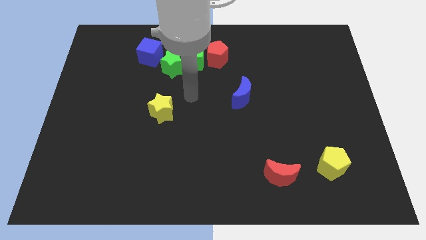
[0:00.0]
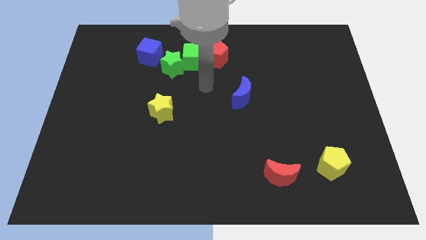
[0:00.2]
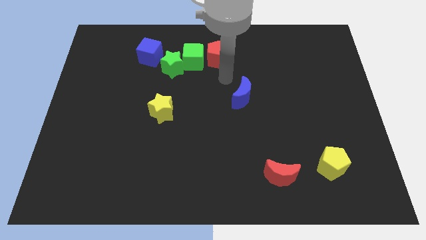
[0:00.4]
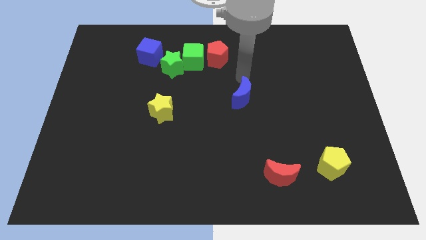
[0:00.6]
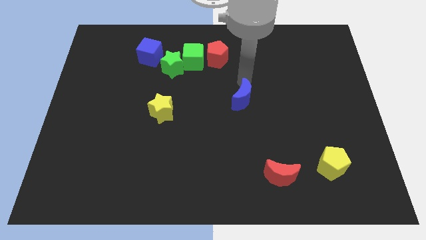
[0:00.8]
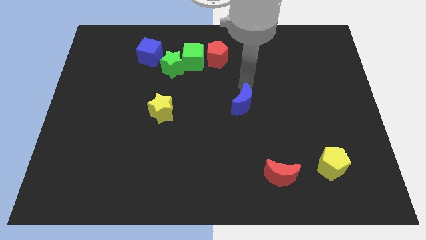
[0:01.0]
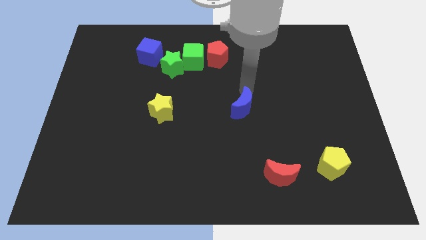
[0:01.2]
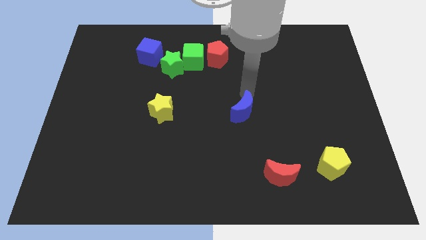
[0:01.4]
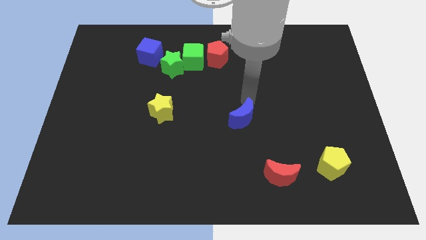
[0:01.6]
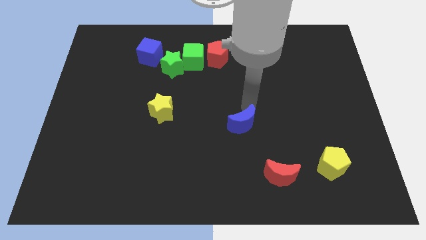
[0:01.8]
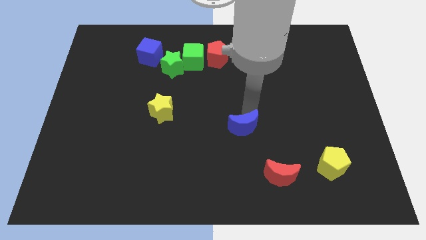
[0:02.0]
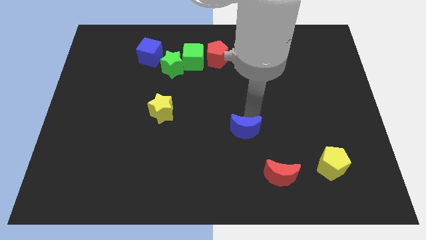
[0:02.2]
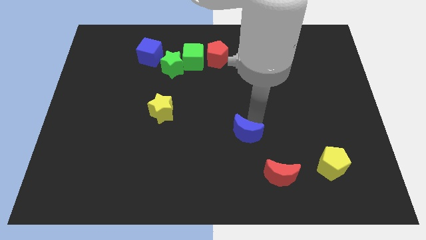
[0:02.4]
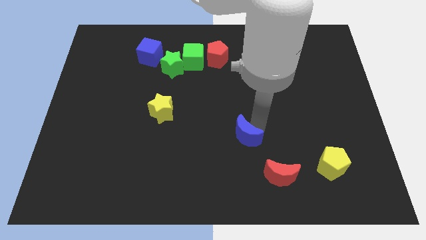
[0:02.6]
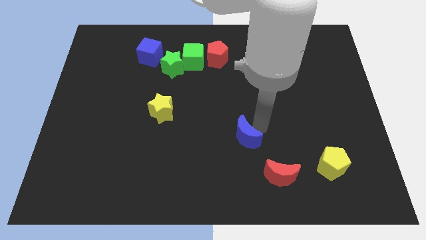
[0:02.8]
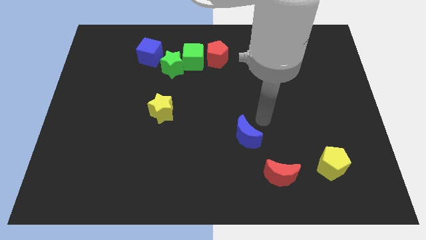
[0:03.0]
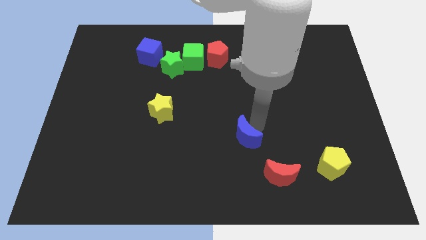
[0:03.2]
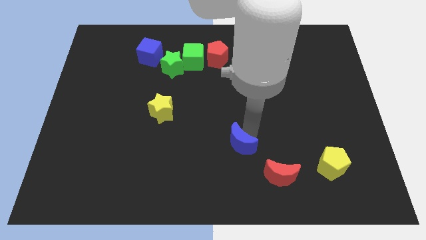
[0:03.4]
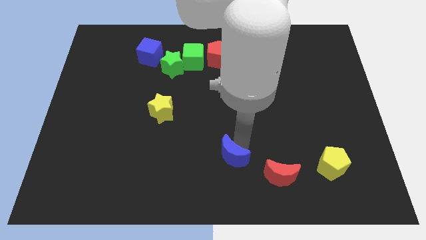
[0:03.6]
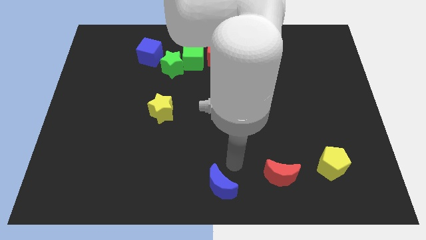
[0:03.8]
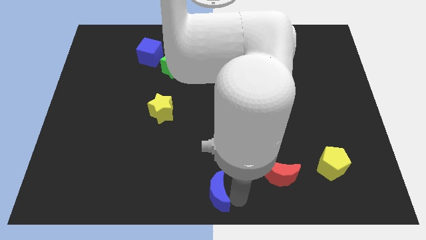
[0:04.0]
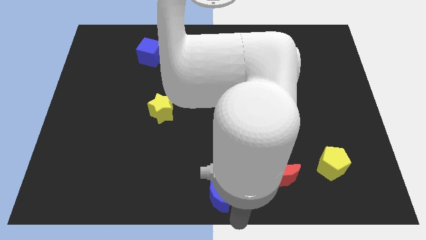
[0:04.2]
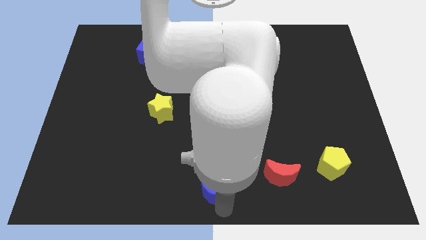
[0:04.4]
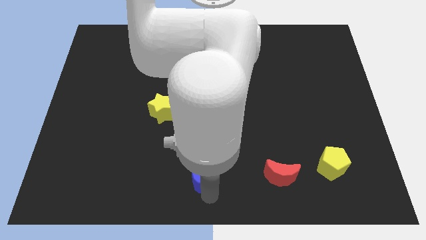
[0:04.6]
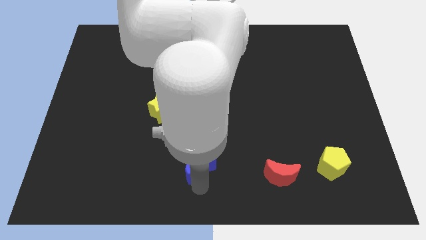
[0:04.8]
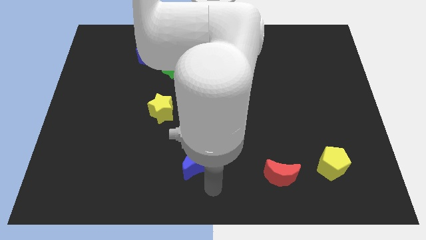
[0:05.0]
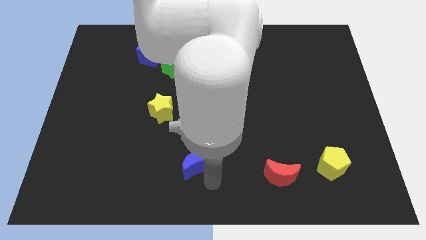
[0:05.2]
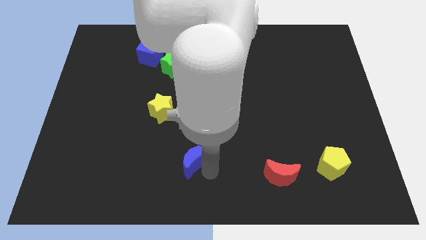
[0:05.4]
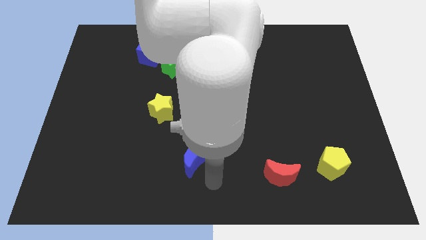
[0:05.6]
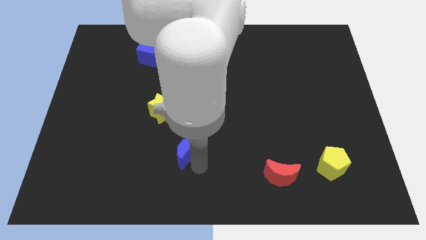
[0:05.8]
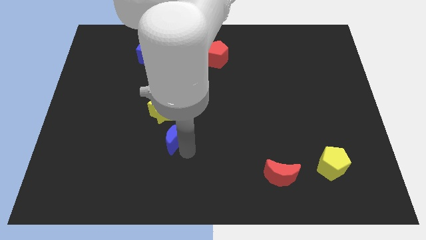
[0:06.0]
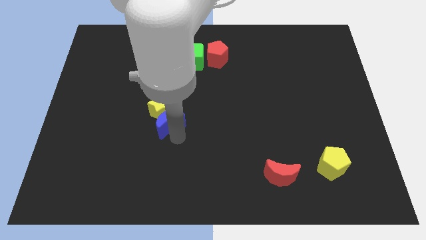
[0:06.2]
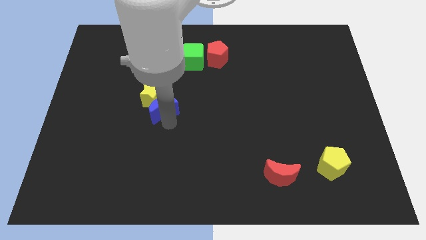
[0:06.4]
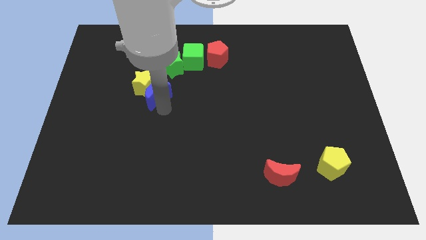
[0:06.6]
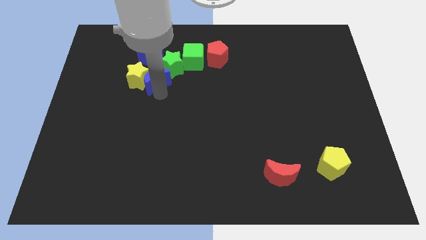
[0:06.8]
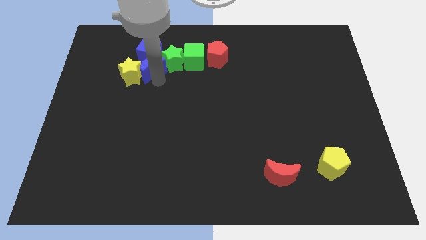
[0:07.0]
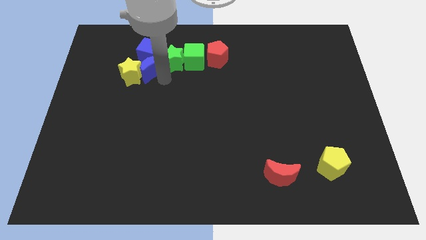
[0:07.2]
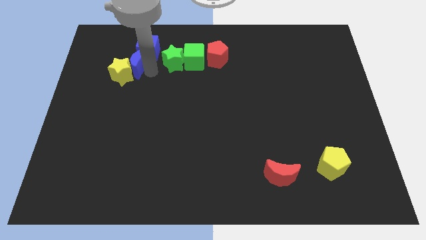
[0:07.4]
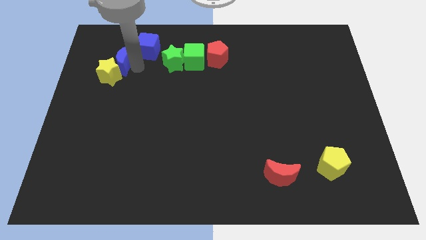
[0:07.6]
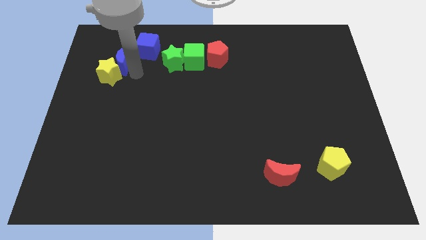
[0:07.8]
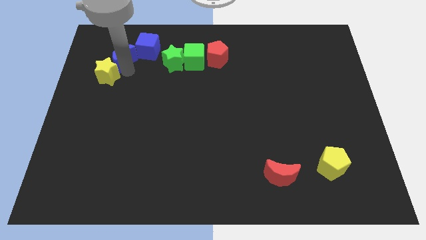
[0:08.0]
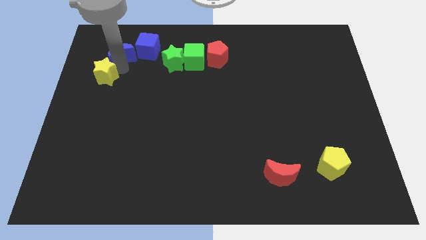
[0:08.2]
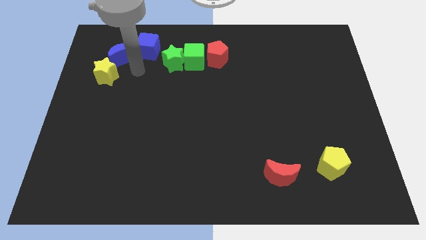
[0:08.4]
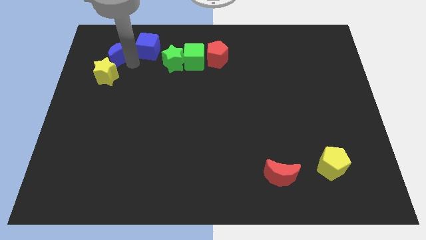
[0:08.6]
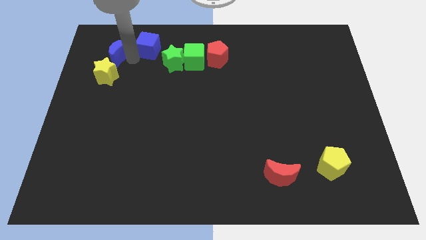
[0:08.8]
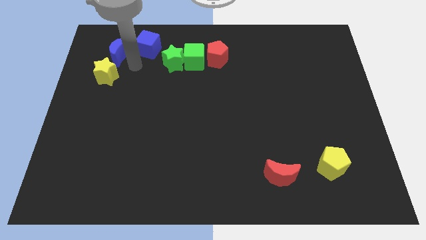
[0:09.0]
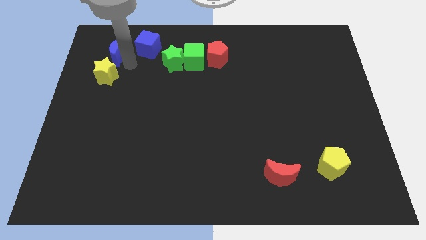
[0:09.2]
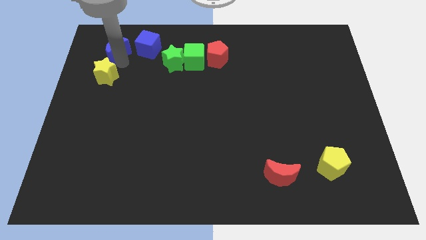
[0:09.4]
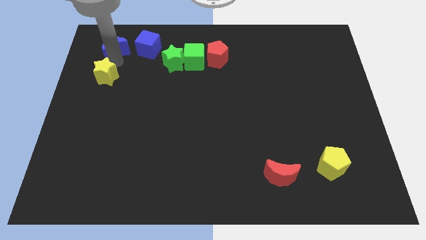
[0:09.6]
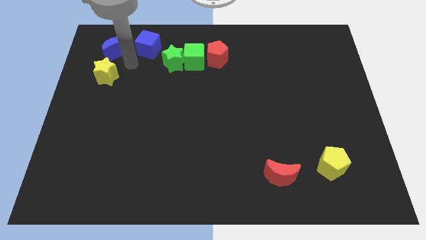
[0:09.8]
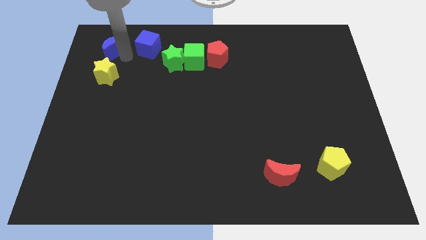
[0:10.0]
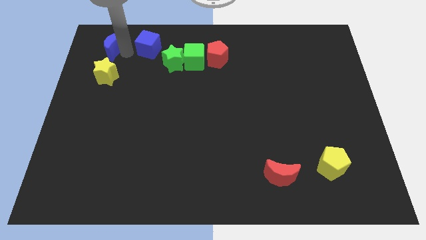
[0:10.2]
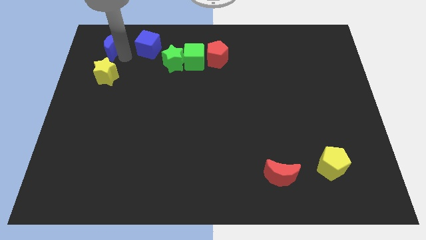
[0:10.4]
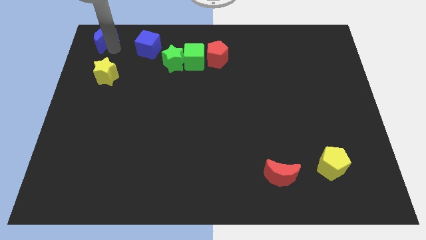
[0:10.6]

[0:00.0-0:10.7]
put the blue moon to the top left corner

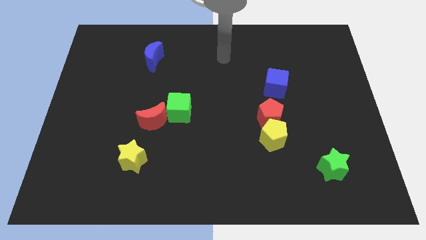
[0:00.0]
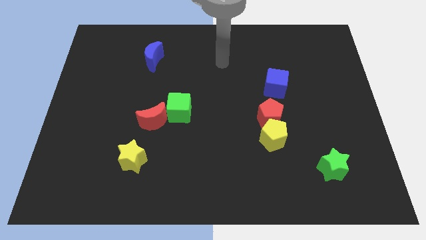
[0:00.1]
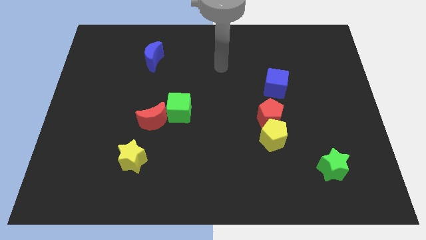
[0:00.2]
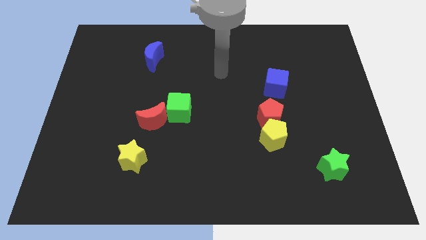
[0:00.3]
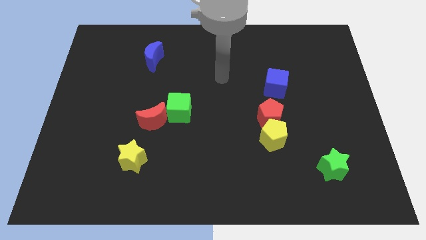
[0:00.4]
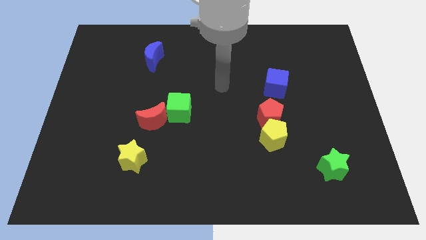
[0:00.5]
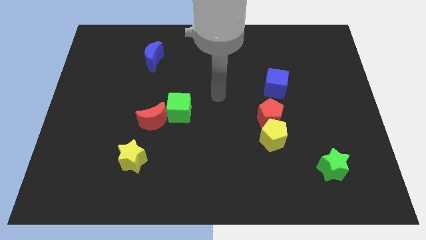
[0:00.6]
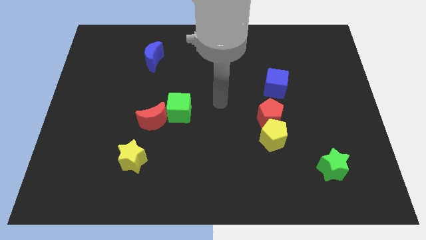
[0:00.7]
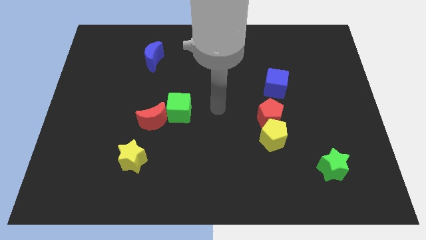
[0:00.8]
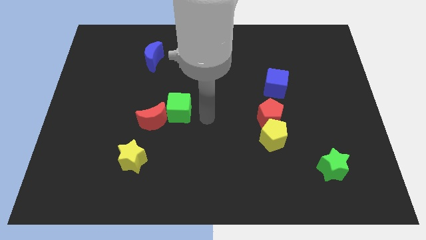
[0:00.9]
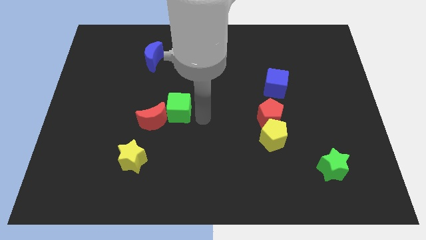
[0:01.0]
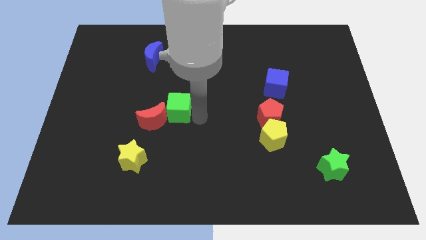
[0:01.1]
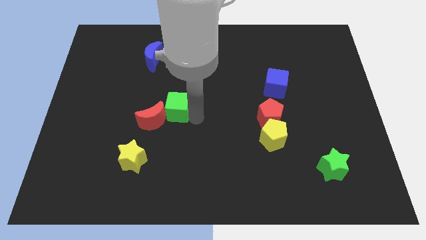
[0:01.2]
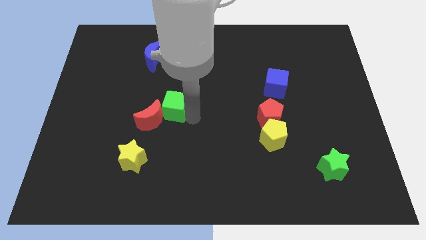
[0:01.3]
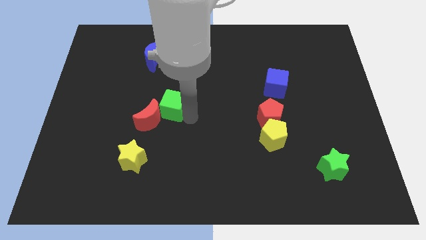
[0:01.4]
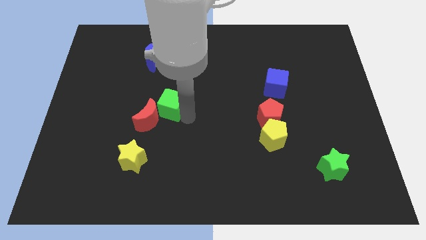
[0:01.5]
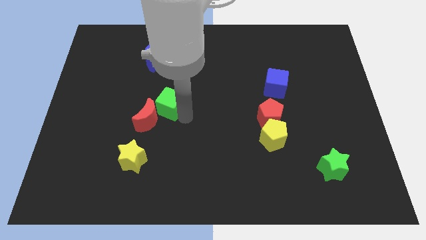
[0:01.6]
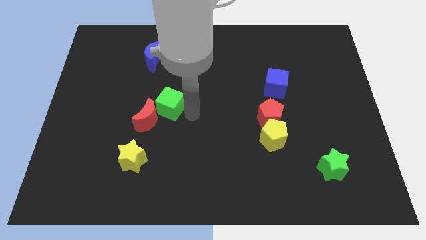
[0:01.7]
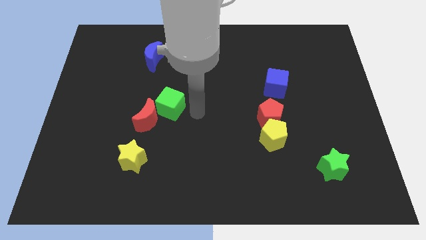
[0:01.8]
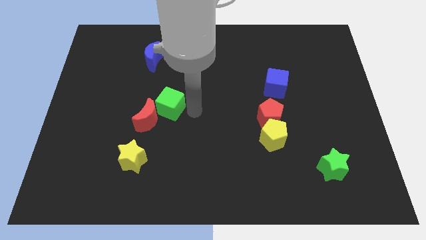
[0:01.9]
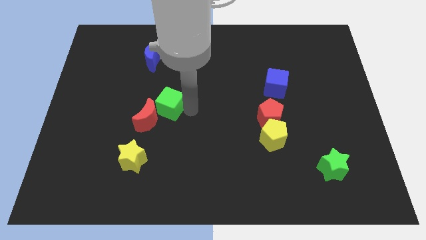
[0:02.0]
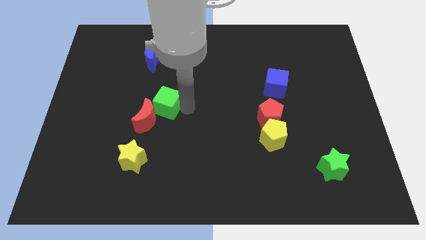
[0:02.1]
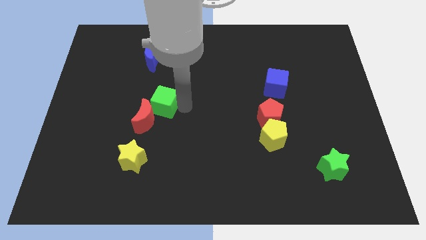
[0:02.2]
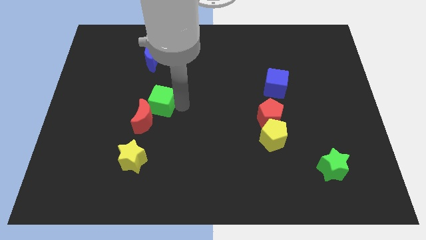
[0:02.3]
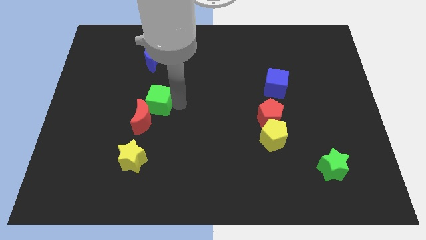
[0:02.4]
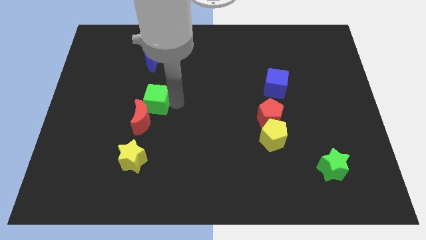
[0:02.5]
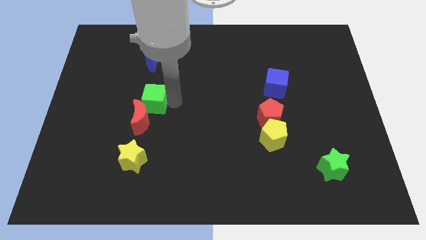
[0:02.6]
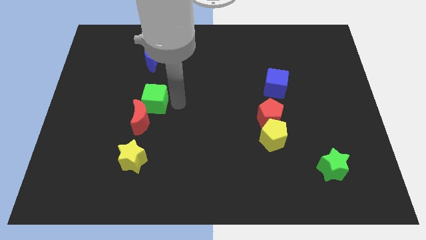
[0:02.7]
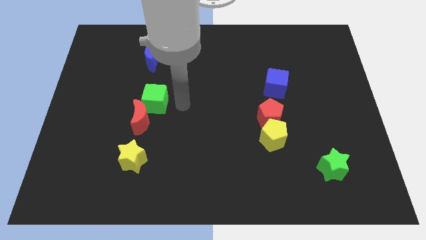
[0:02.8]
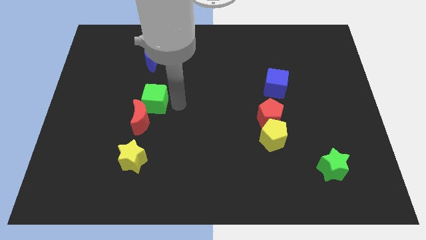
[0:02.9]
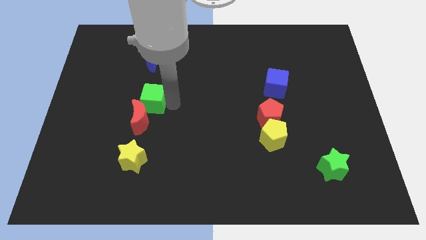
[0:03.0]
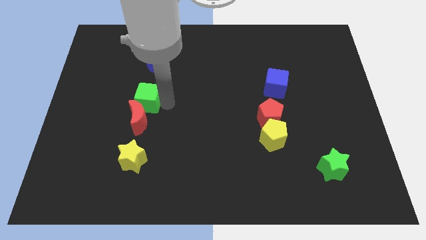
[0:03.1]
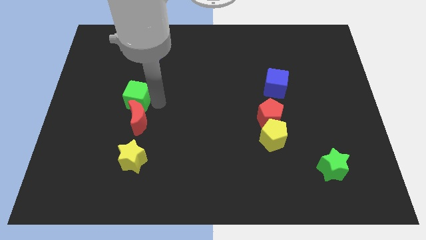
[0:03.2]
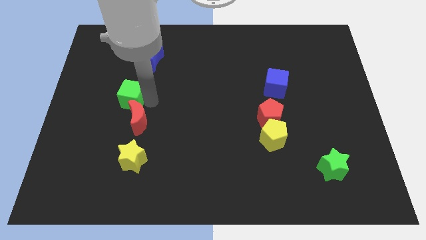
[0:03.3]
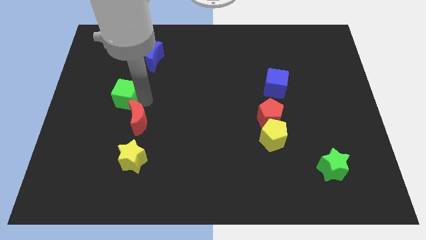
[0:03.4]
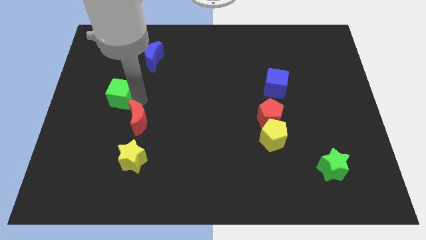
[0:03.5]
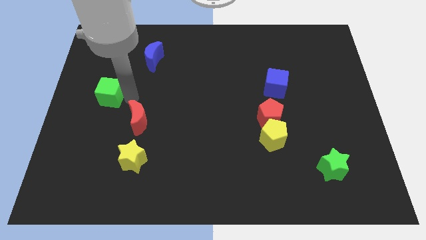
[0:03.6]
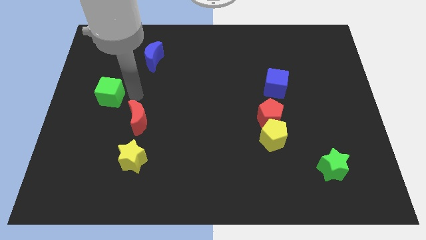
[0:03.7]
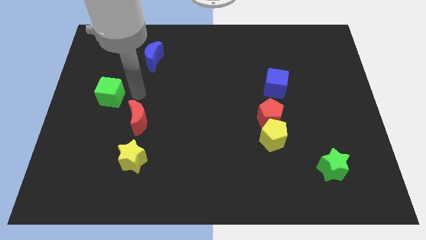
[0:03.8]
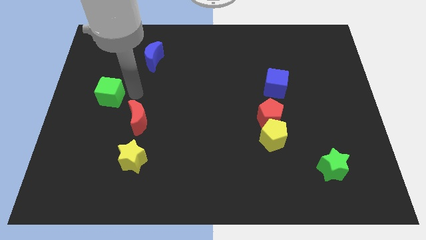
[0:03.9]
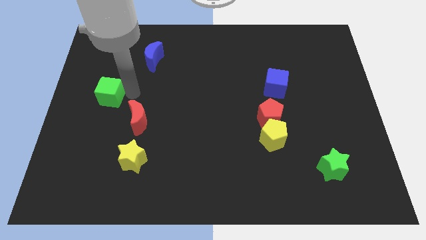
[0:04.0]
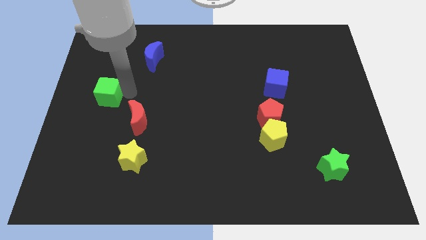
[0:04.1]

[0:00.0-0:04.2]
move the green cube to the center left
